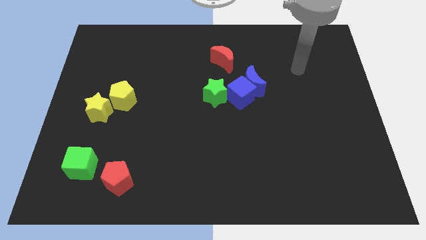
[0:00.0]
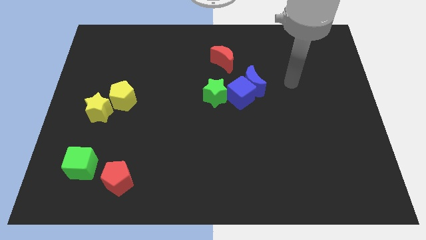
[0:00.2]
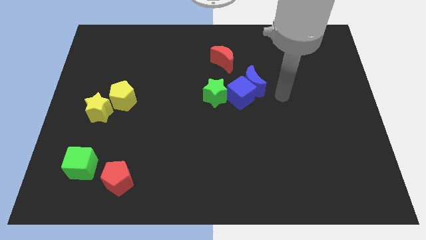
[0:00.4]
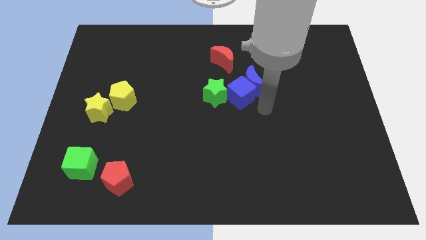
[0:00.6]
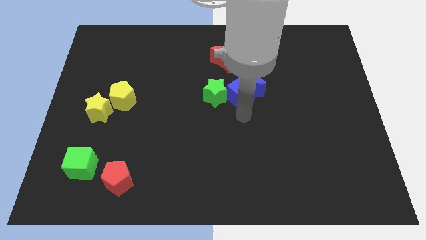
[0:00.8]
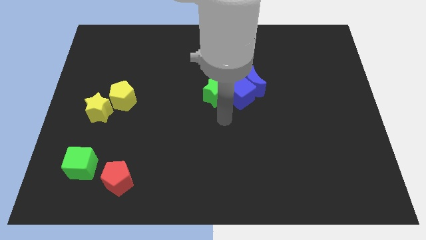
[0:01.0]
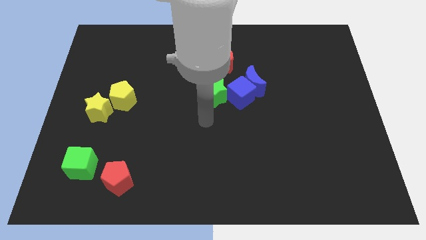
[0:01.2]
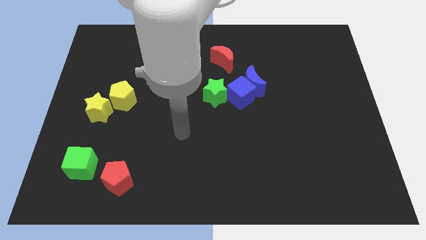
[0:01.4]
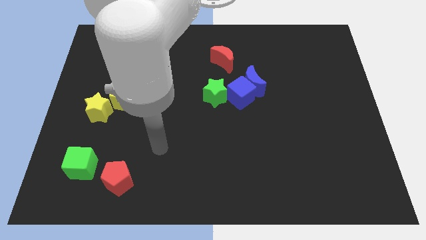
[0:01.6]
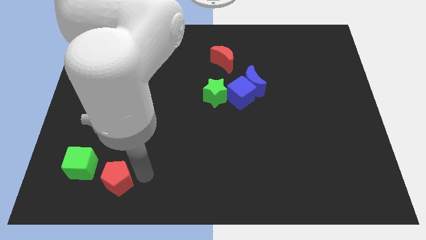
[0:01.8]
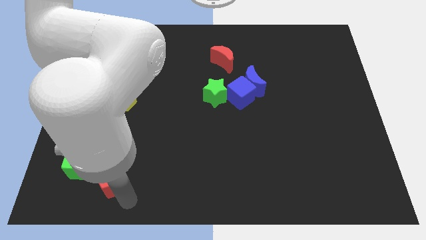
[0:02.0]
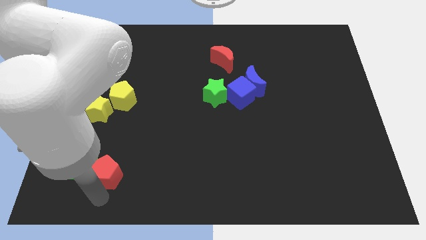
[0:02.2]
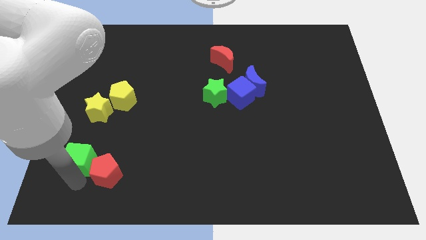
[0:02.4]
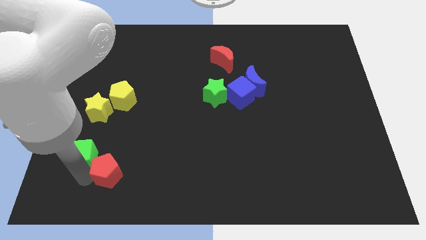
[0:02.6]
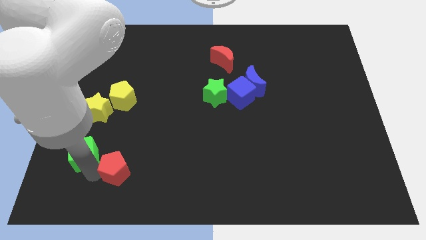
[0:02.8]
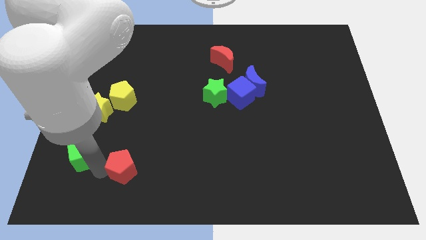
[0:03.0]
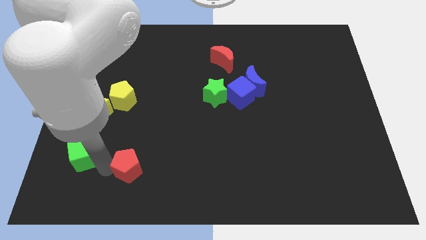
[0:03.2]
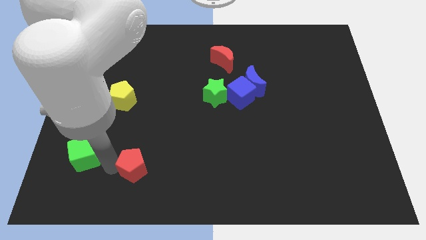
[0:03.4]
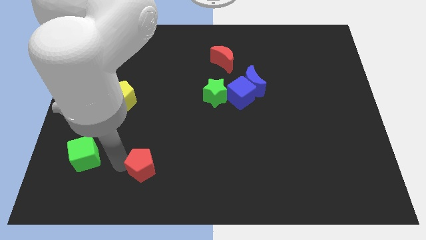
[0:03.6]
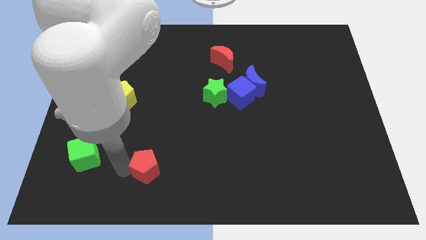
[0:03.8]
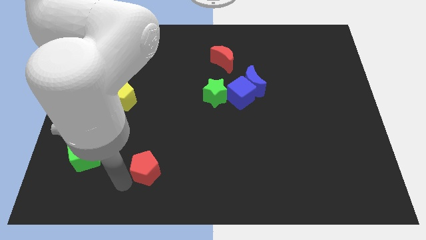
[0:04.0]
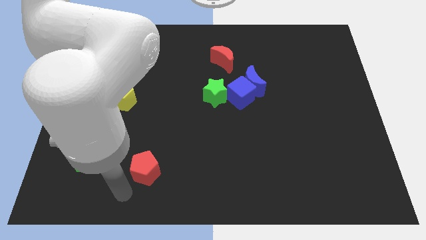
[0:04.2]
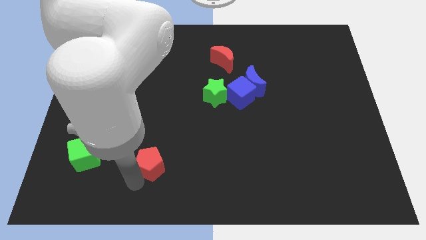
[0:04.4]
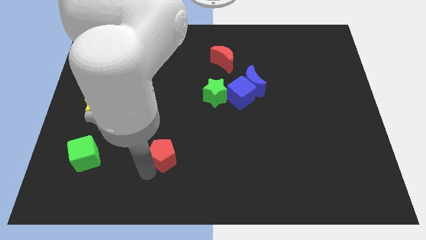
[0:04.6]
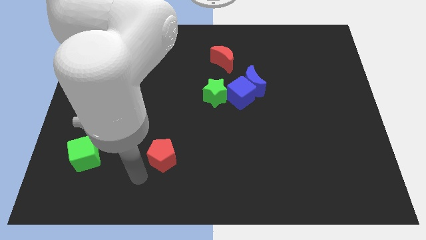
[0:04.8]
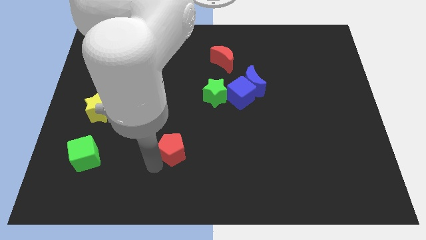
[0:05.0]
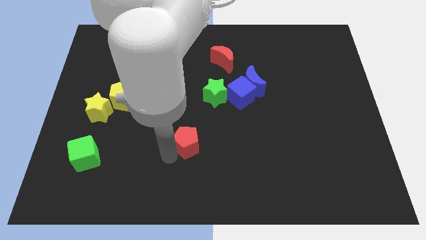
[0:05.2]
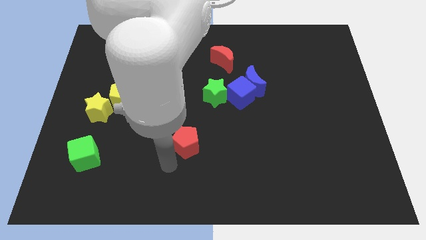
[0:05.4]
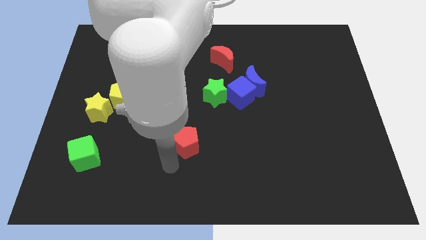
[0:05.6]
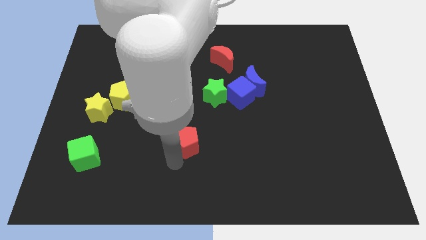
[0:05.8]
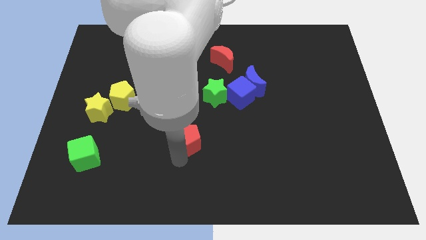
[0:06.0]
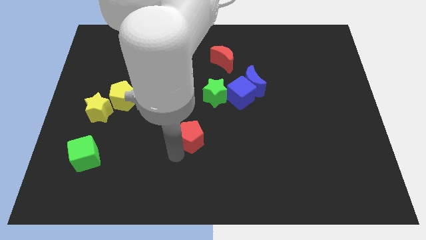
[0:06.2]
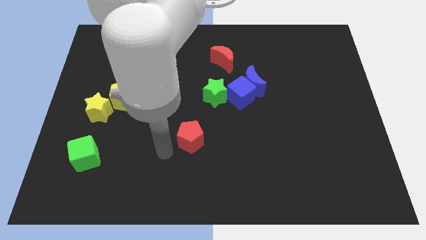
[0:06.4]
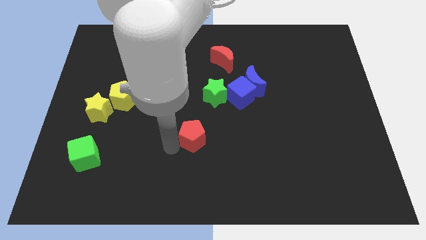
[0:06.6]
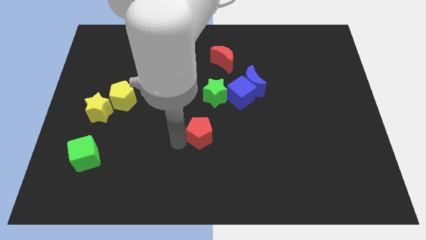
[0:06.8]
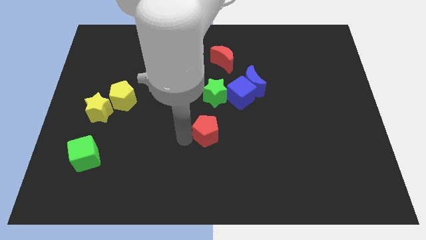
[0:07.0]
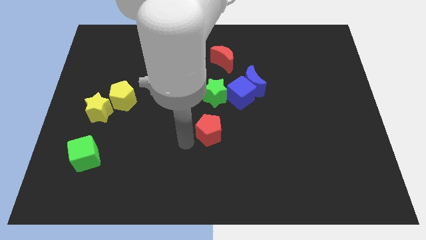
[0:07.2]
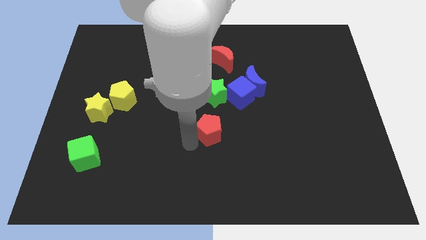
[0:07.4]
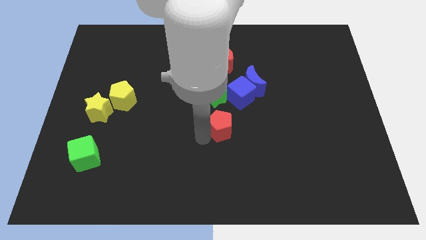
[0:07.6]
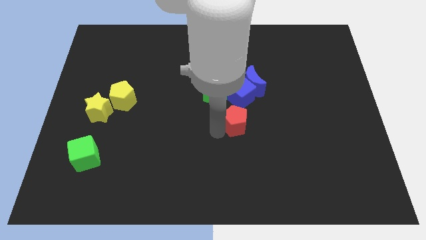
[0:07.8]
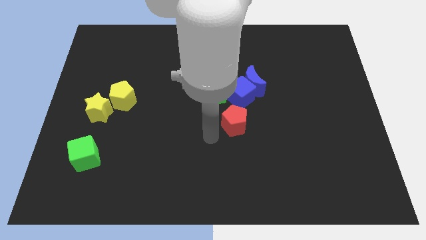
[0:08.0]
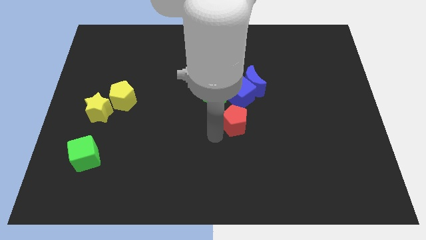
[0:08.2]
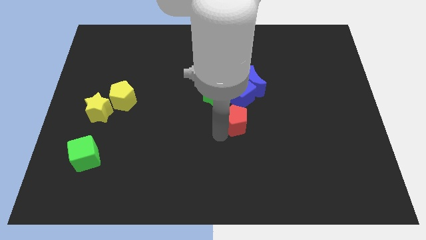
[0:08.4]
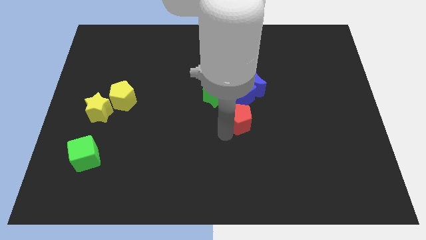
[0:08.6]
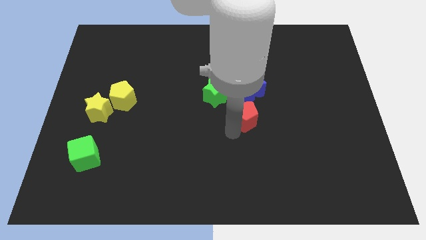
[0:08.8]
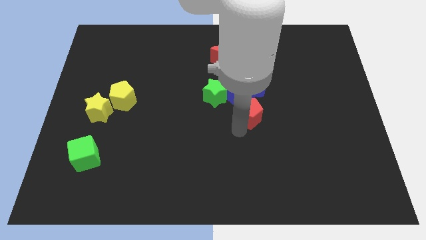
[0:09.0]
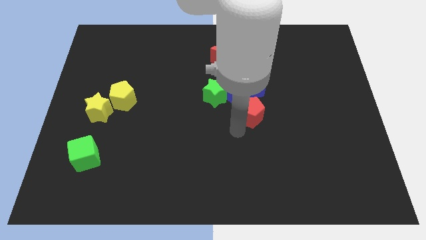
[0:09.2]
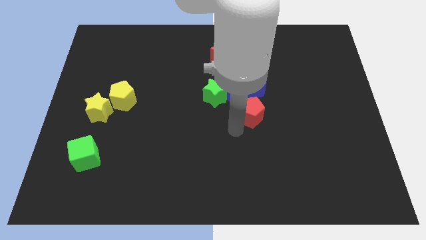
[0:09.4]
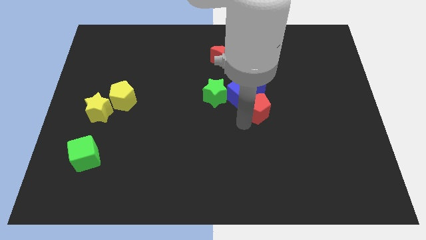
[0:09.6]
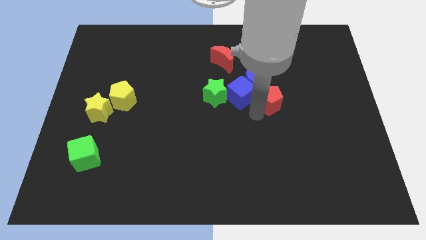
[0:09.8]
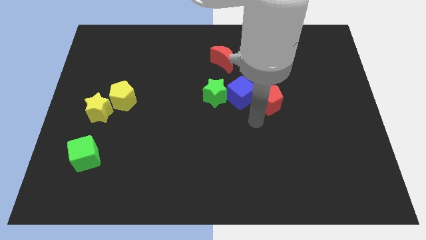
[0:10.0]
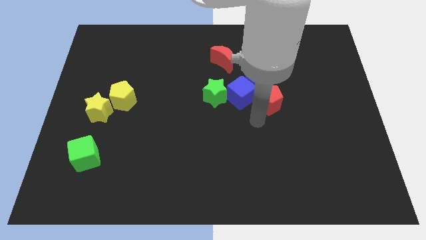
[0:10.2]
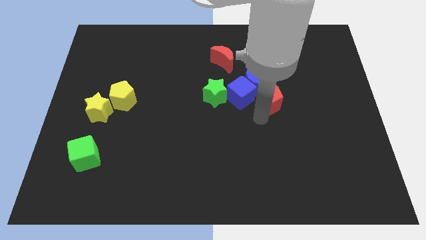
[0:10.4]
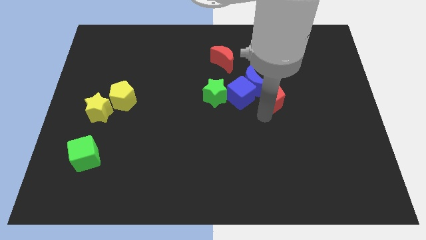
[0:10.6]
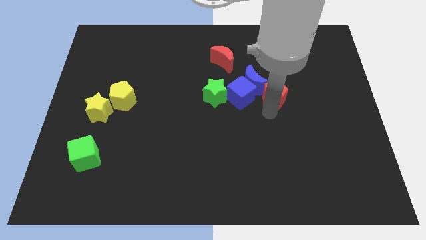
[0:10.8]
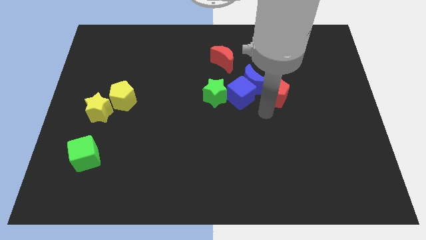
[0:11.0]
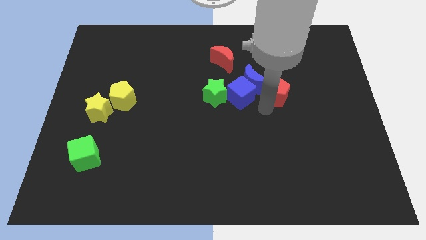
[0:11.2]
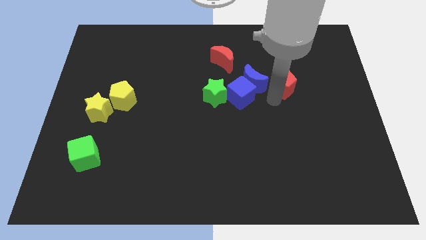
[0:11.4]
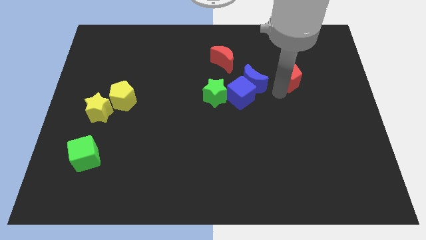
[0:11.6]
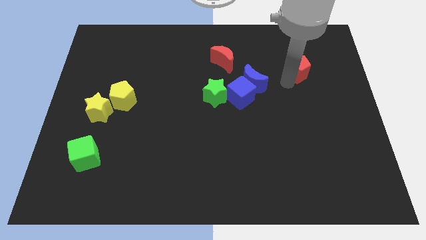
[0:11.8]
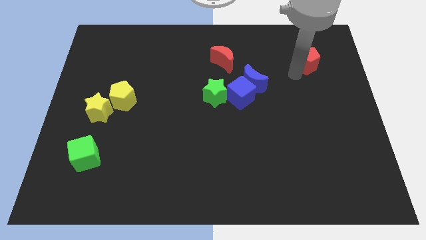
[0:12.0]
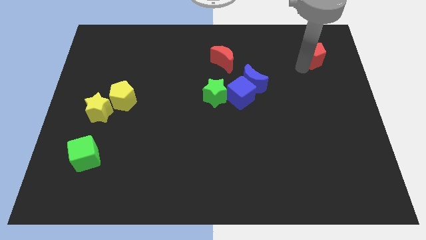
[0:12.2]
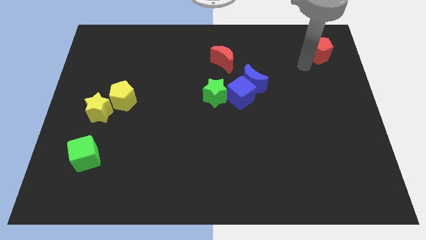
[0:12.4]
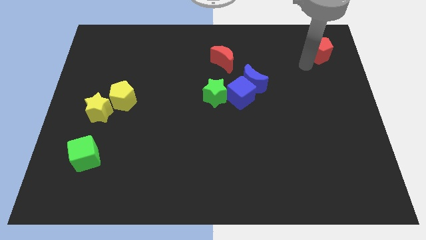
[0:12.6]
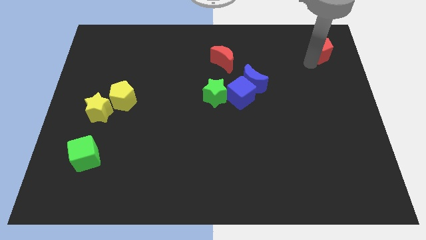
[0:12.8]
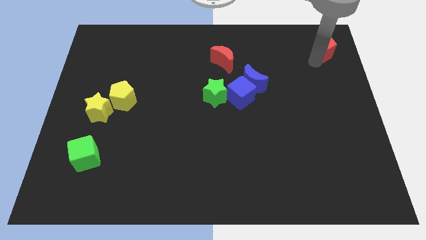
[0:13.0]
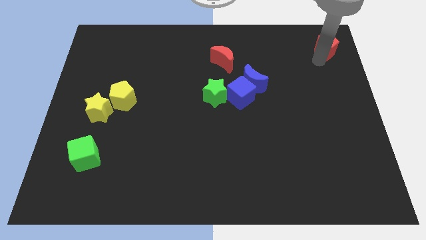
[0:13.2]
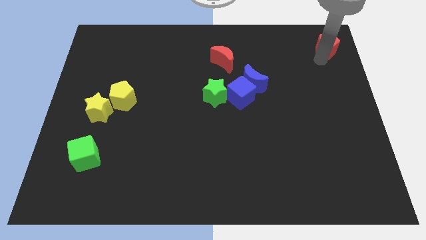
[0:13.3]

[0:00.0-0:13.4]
slide the red pentagon to the top right corner
